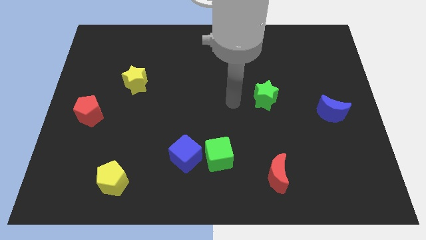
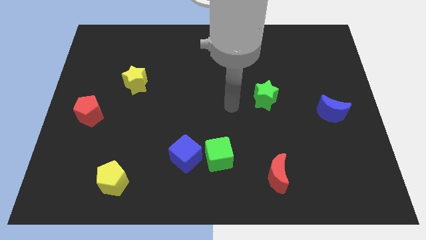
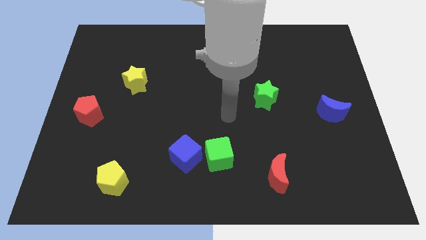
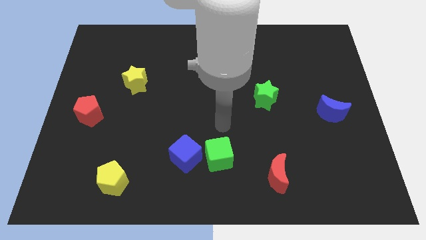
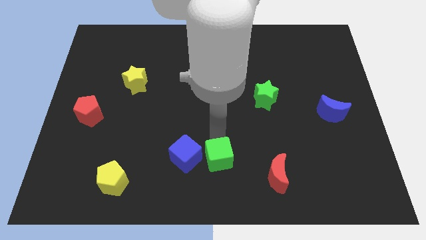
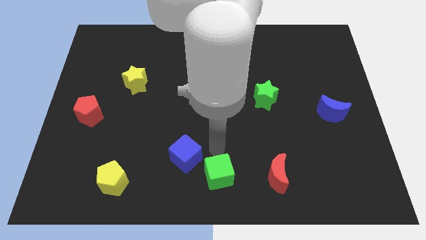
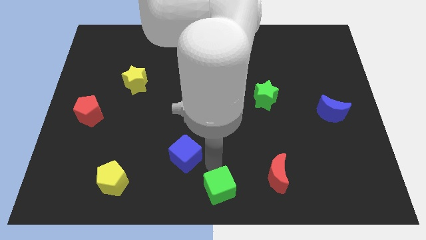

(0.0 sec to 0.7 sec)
separate the blue cube from the green cube

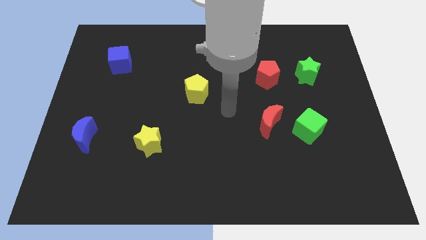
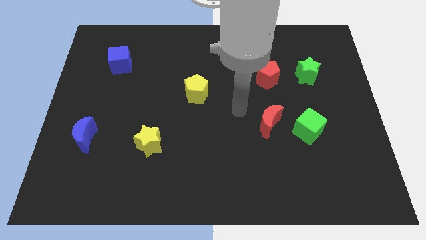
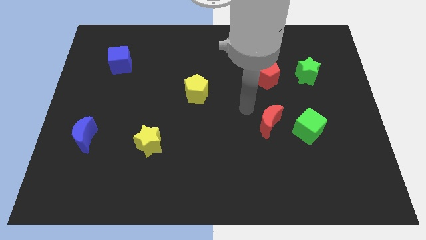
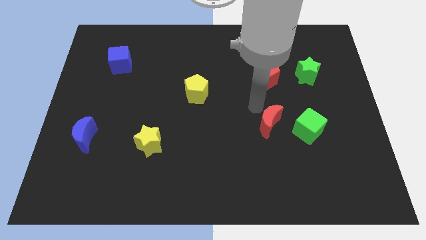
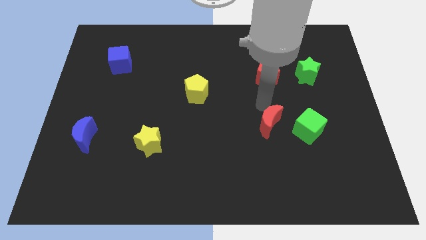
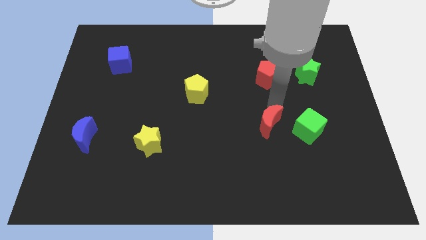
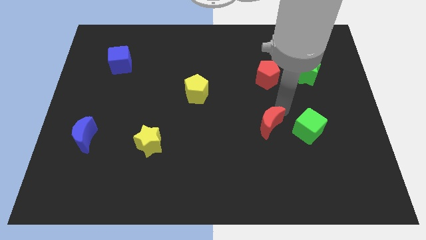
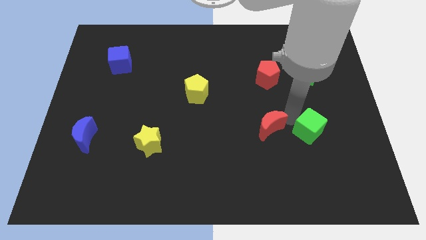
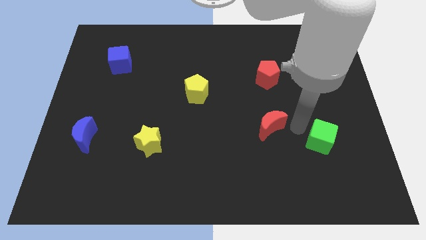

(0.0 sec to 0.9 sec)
separate the red moon from the green cube

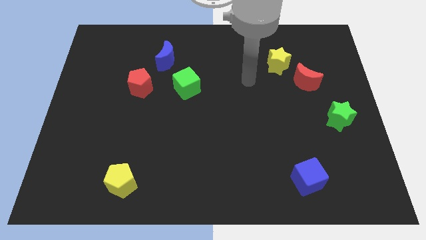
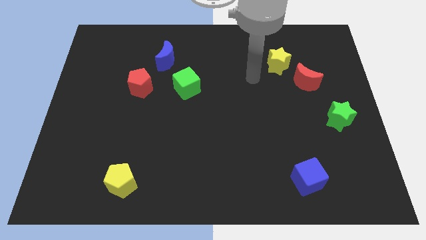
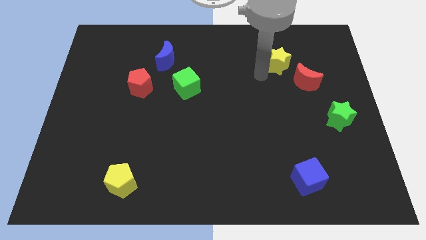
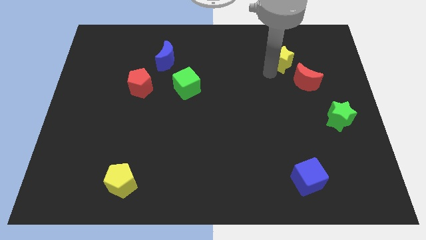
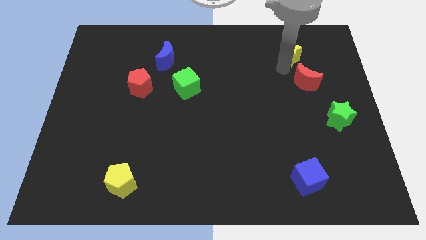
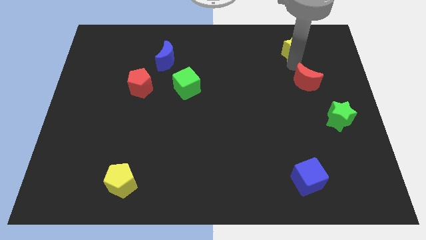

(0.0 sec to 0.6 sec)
pull the red moon apart from the yellow star

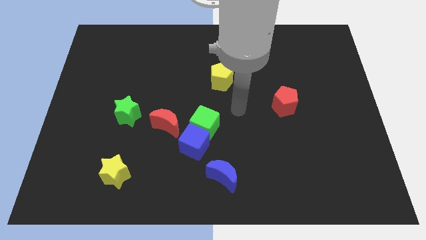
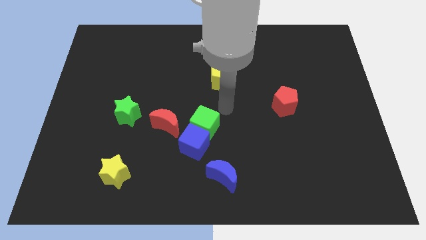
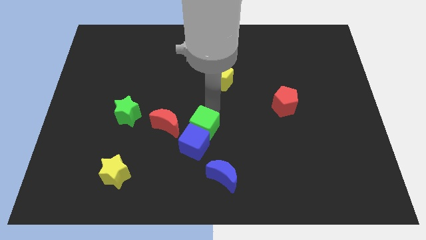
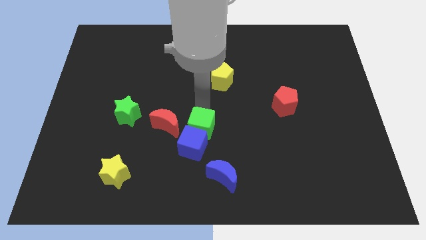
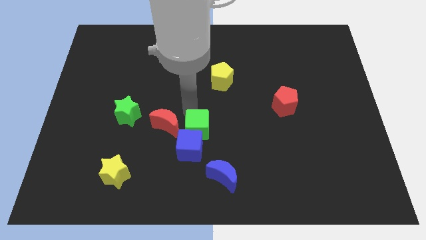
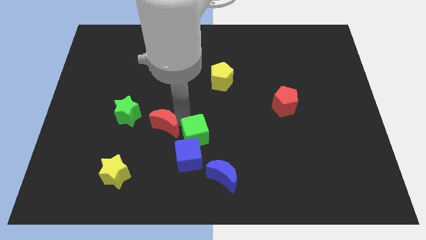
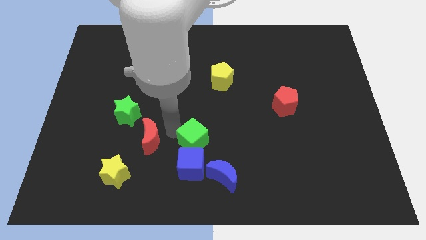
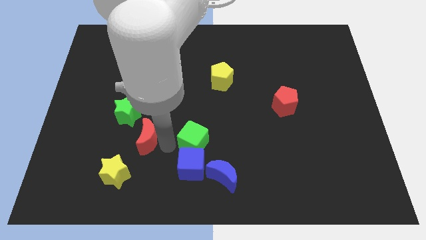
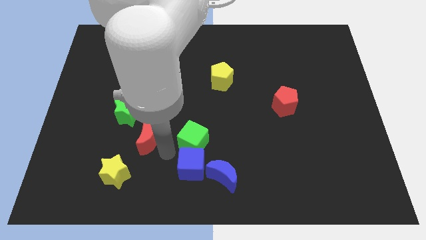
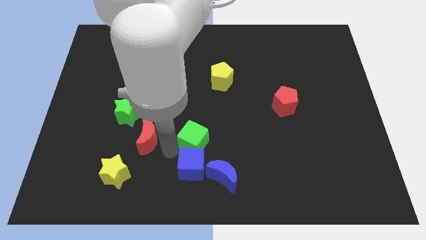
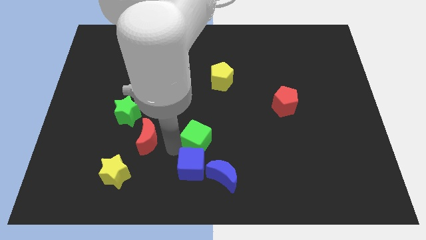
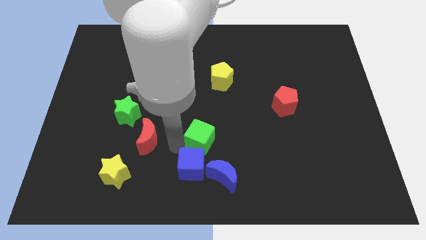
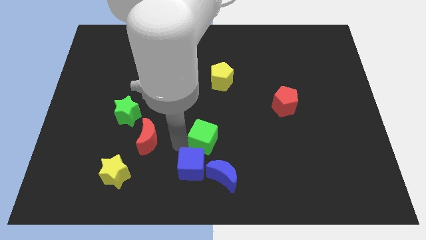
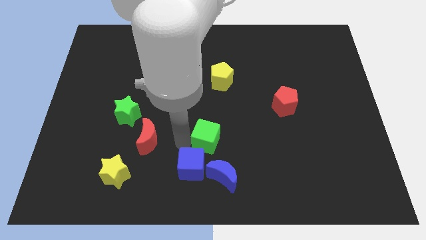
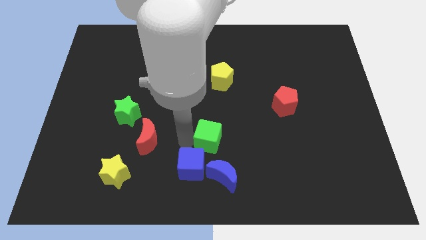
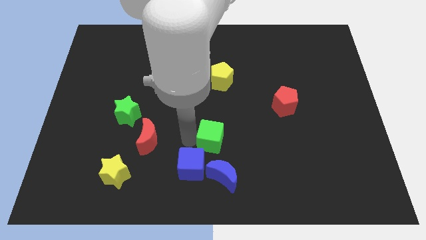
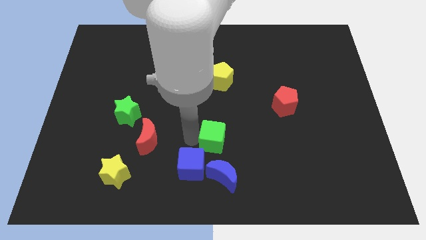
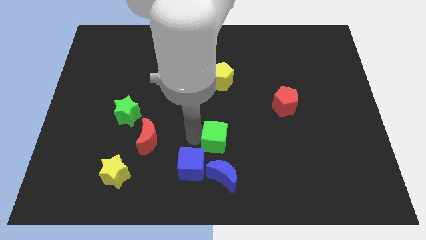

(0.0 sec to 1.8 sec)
move the green cube away from the blue cube and red moon

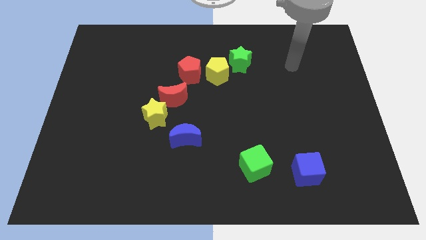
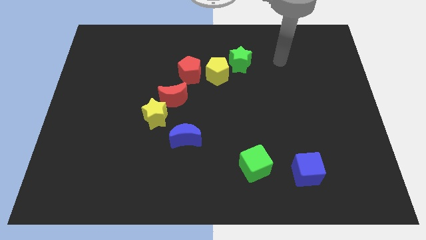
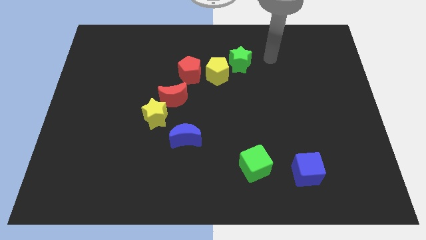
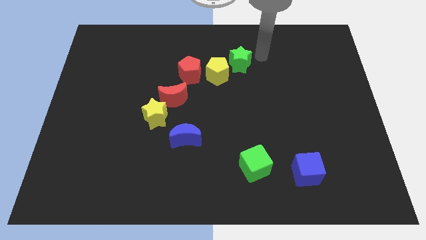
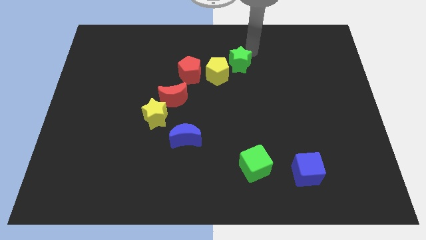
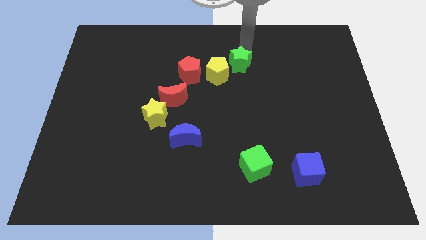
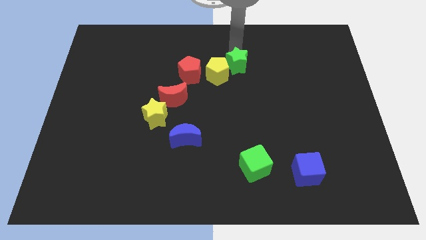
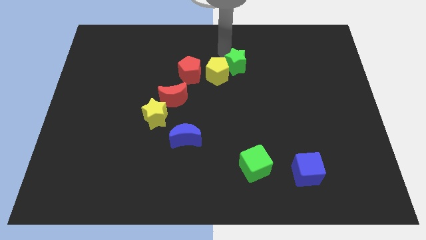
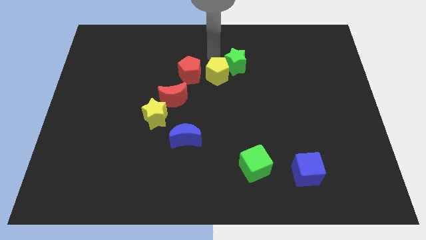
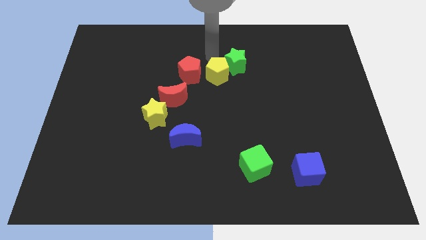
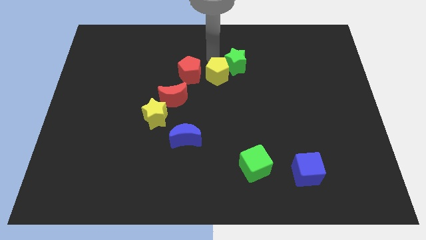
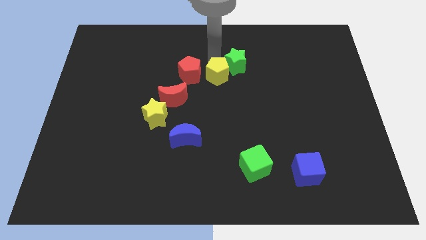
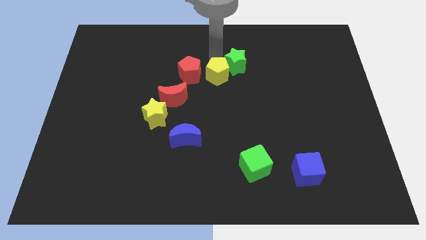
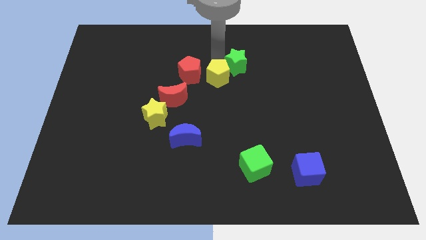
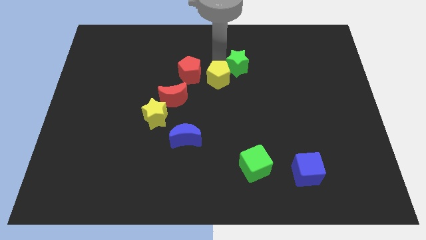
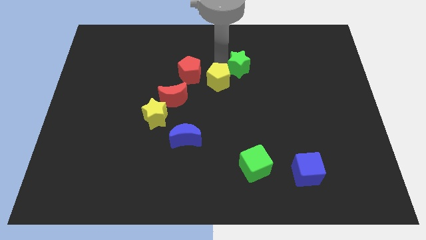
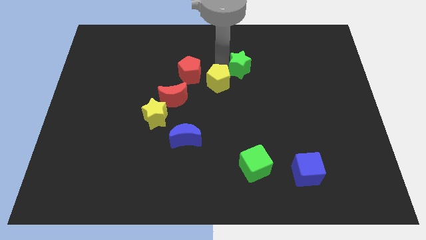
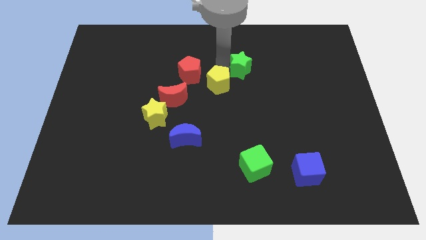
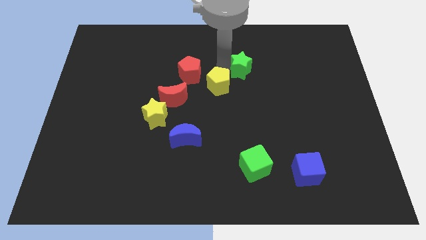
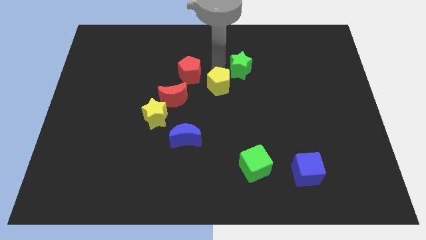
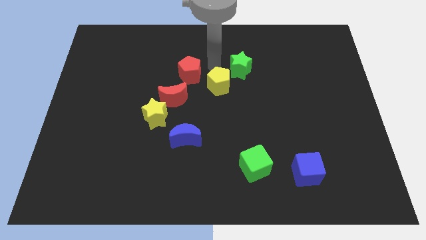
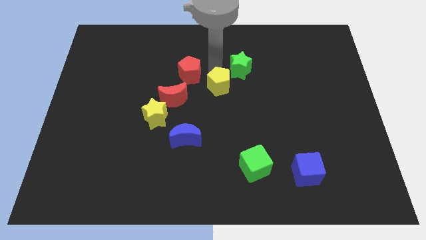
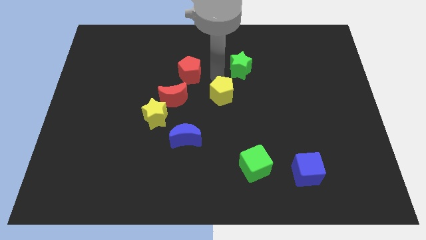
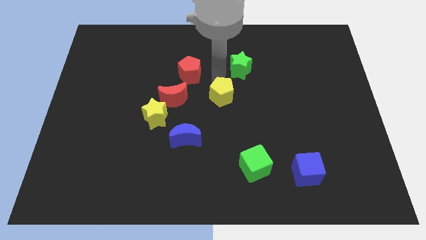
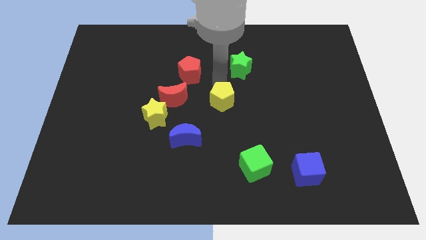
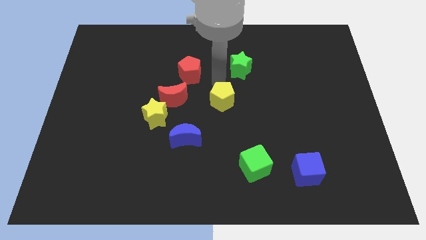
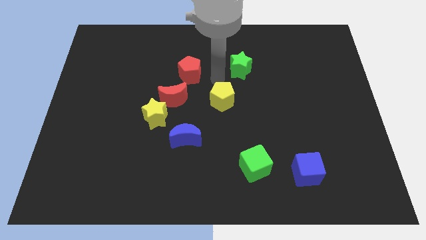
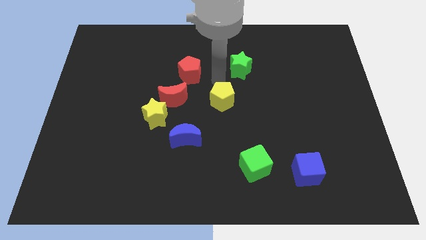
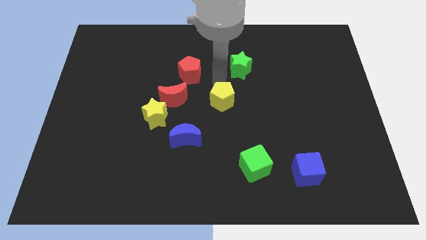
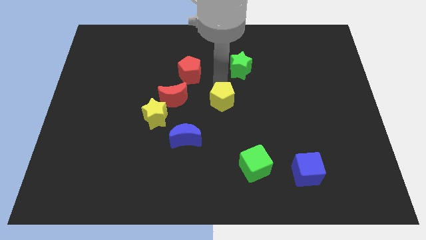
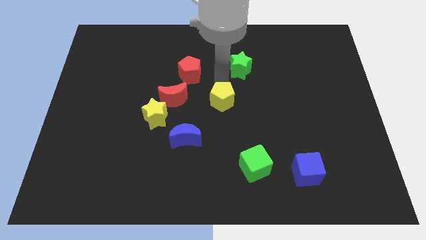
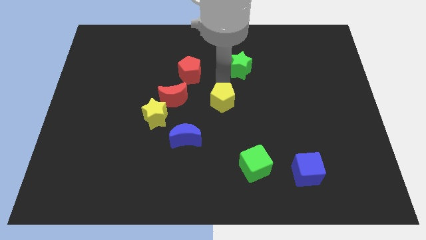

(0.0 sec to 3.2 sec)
pull the yellow pentagon apart from the red pentagon and green star

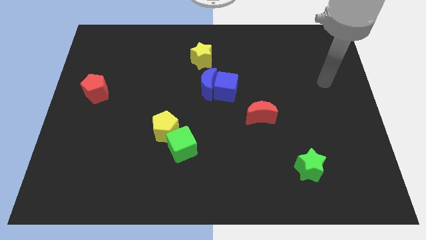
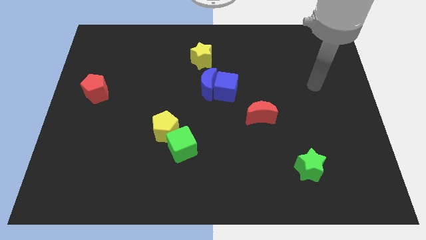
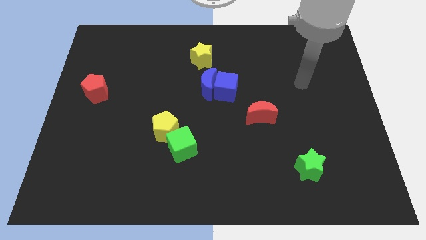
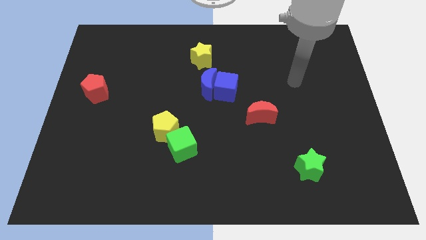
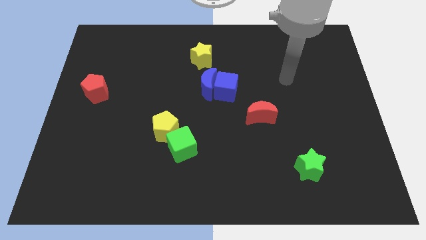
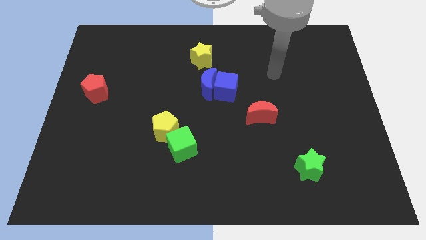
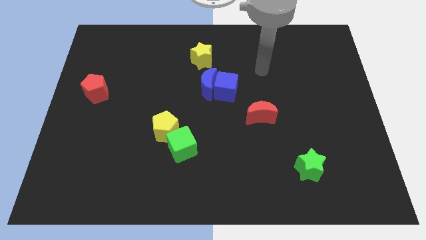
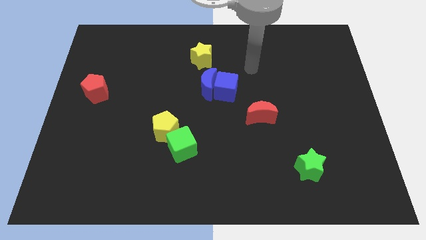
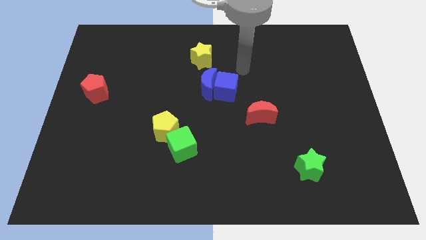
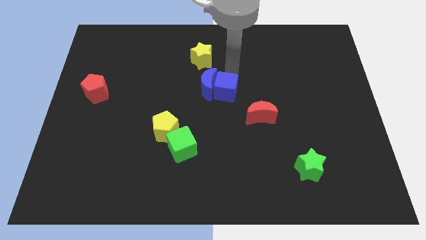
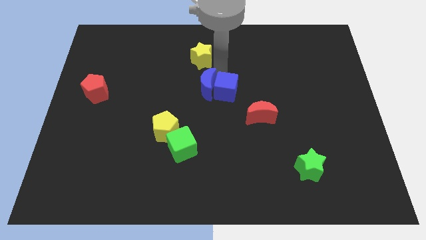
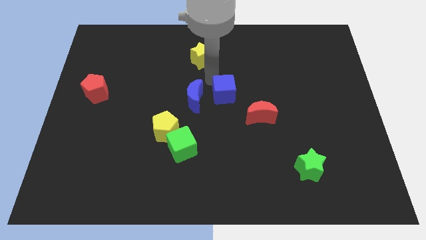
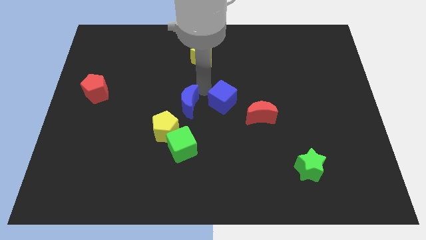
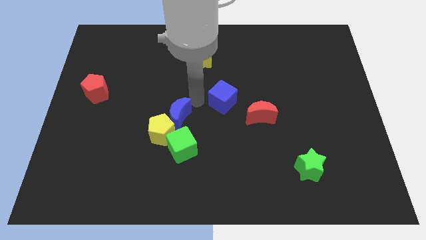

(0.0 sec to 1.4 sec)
separate the blue cube from the blue moon

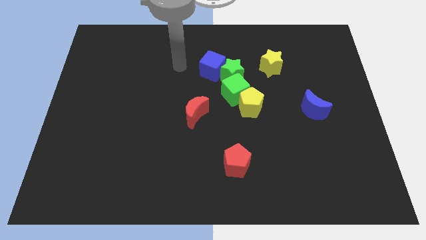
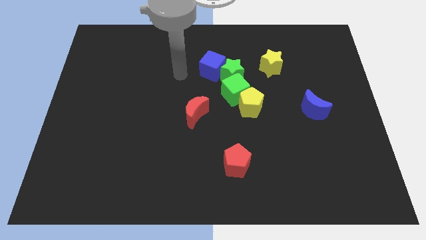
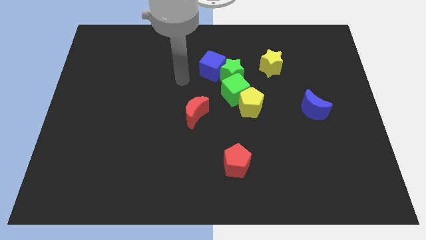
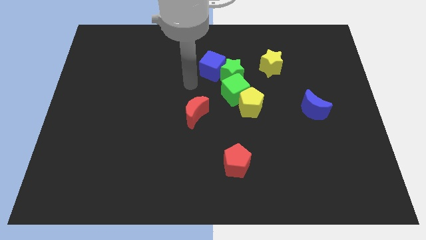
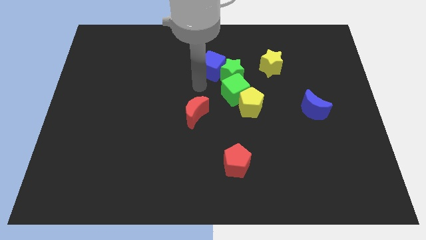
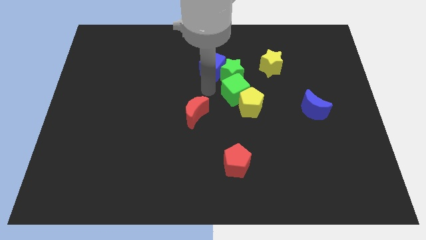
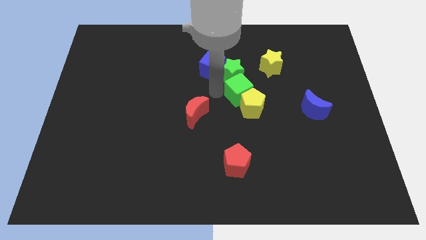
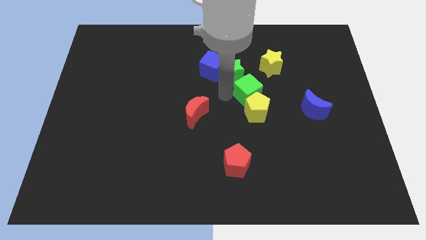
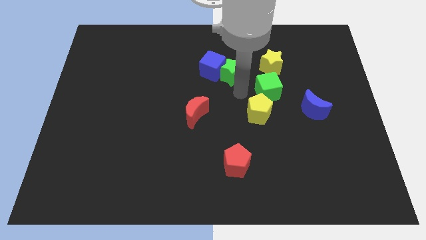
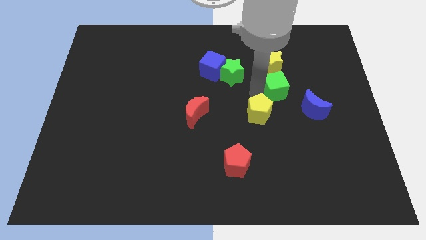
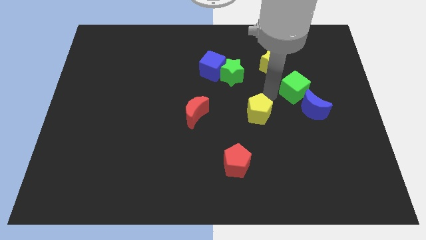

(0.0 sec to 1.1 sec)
pull the yellow pentagon apart from the green cube
